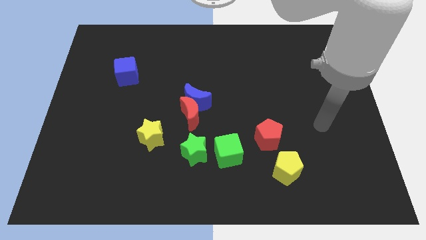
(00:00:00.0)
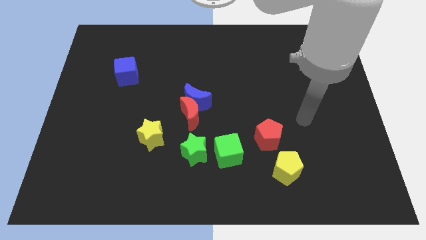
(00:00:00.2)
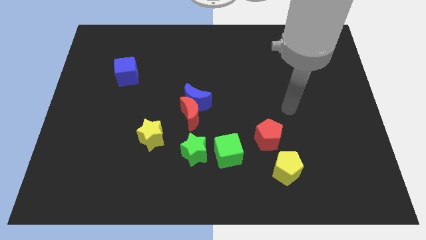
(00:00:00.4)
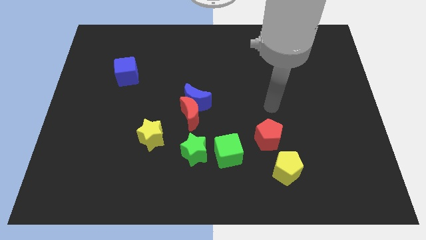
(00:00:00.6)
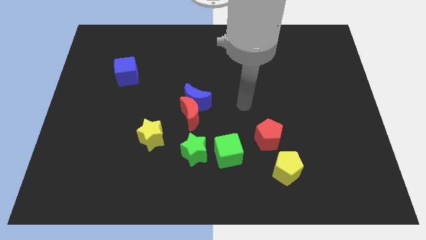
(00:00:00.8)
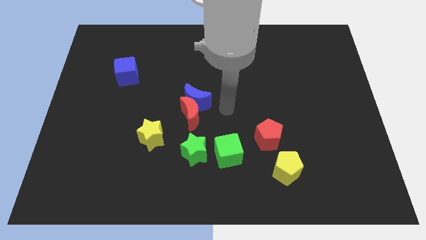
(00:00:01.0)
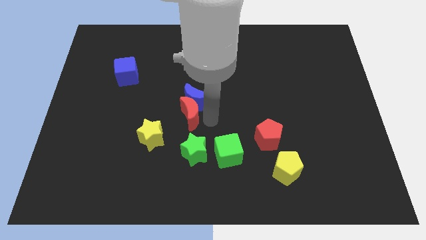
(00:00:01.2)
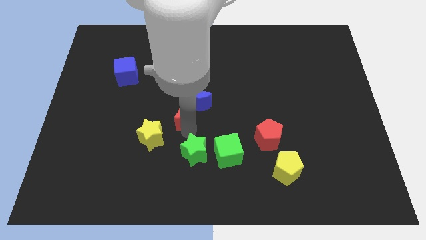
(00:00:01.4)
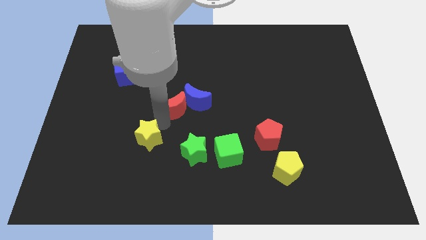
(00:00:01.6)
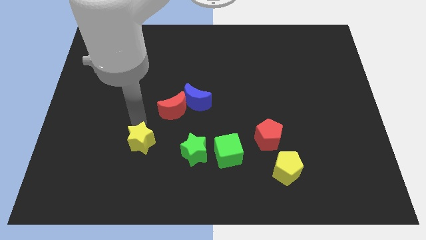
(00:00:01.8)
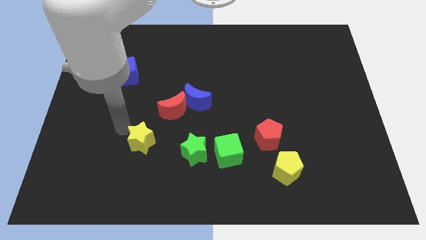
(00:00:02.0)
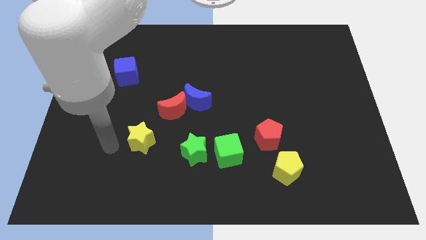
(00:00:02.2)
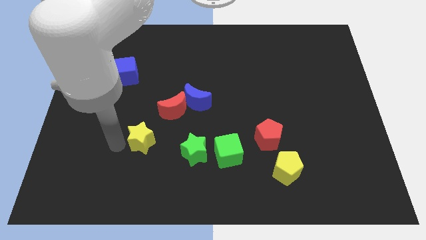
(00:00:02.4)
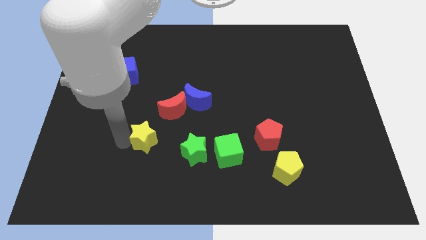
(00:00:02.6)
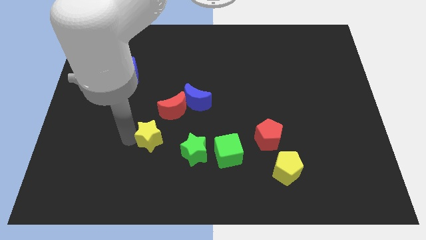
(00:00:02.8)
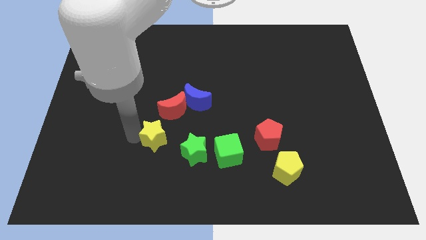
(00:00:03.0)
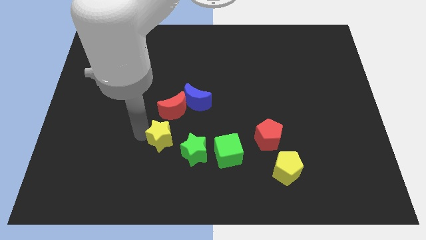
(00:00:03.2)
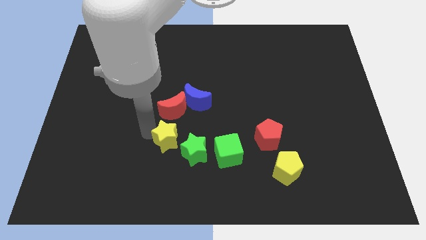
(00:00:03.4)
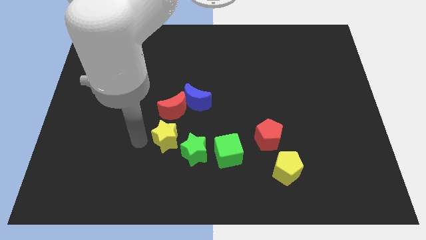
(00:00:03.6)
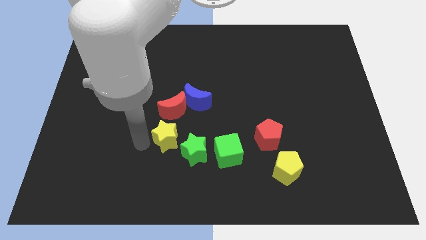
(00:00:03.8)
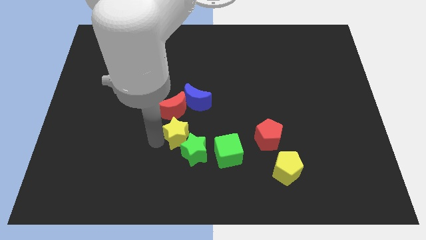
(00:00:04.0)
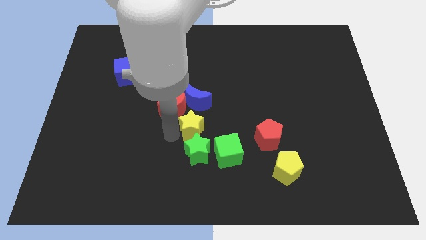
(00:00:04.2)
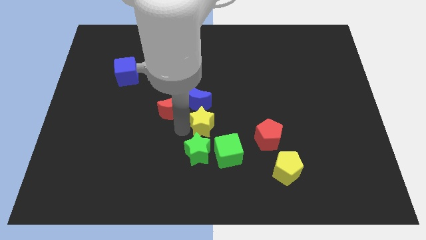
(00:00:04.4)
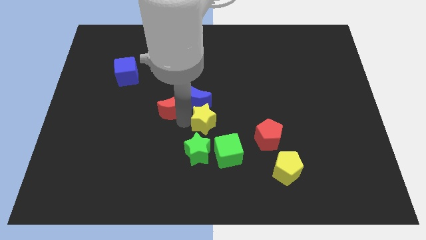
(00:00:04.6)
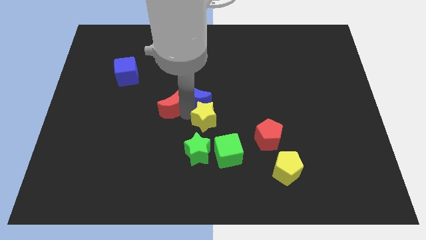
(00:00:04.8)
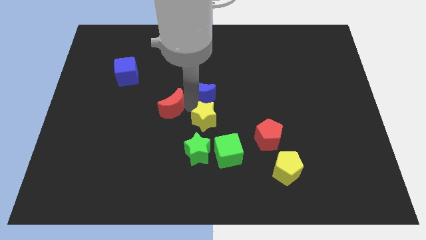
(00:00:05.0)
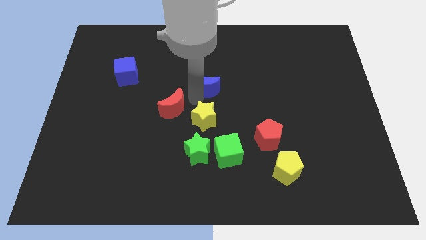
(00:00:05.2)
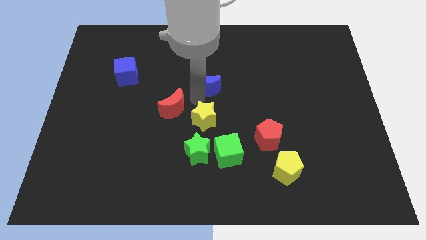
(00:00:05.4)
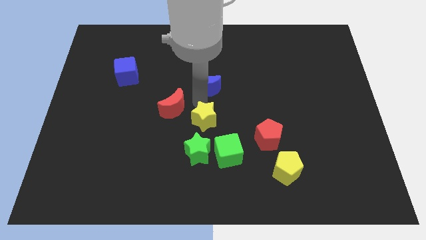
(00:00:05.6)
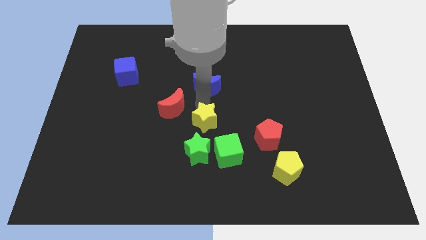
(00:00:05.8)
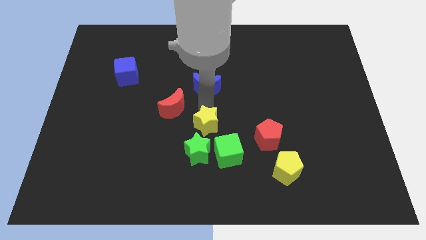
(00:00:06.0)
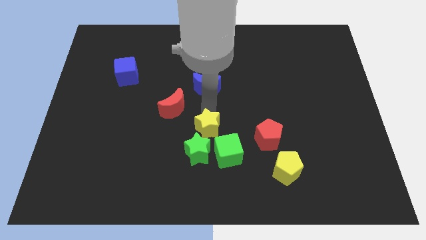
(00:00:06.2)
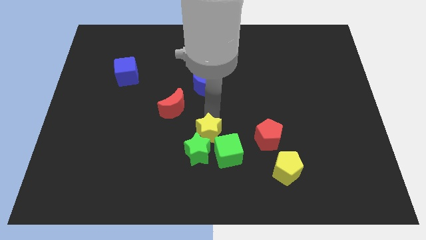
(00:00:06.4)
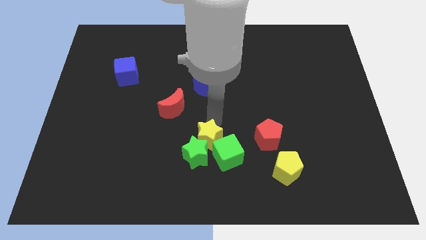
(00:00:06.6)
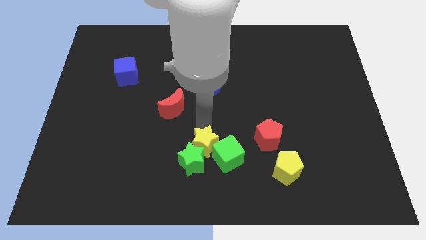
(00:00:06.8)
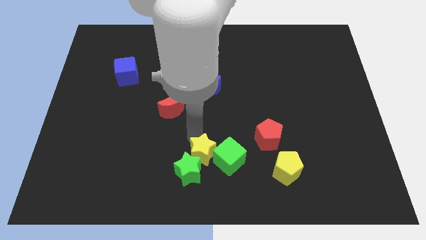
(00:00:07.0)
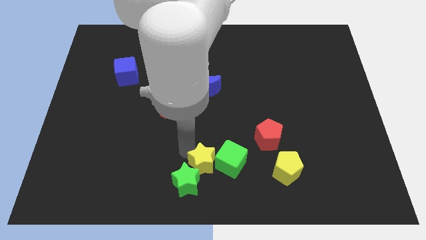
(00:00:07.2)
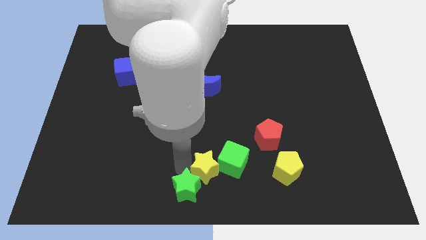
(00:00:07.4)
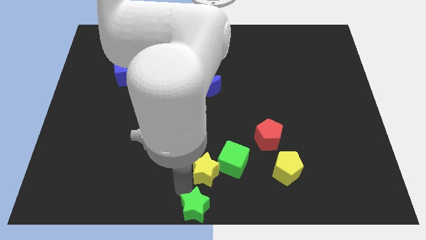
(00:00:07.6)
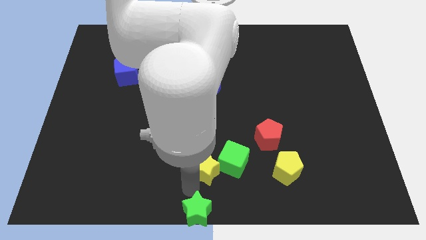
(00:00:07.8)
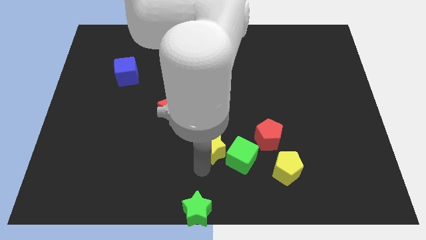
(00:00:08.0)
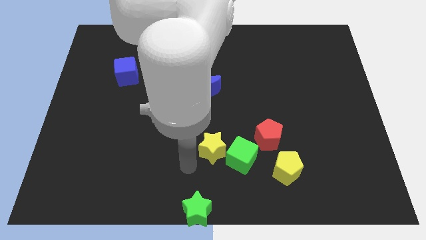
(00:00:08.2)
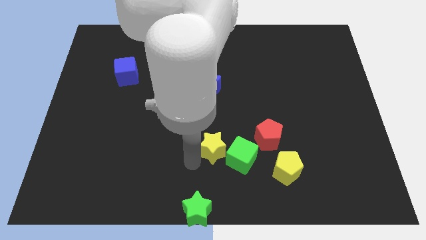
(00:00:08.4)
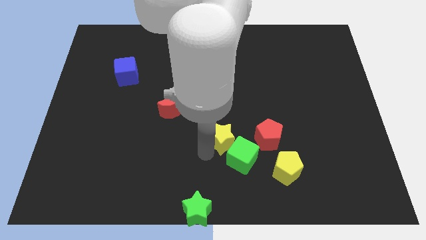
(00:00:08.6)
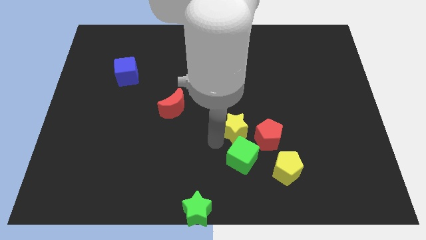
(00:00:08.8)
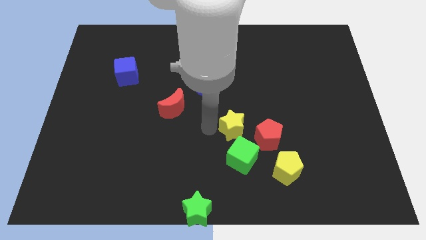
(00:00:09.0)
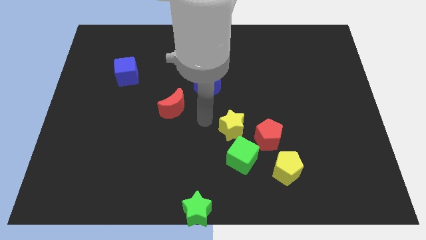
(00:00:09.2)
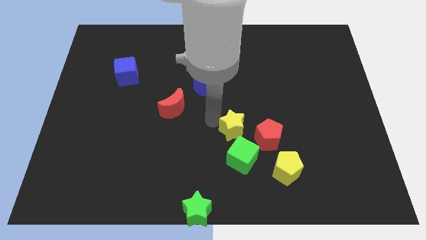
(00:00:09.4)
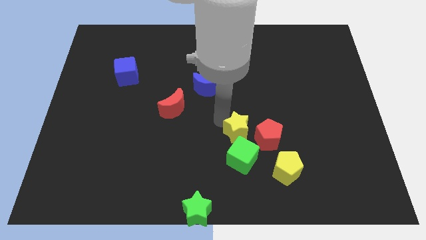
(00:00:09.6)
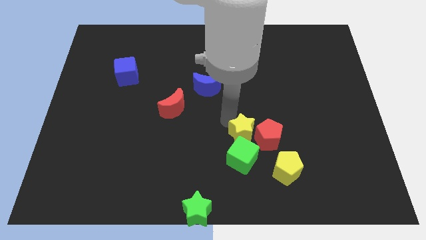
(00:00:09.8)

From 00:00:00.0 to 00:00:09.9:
put the yellow star towards the red pentagon

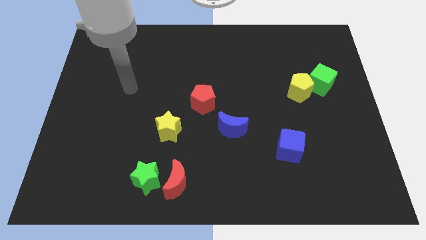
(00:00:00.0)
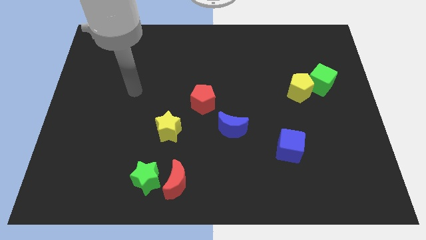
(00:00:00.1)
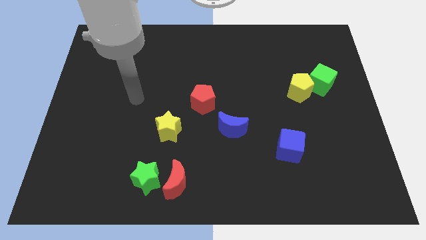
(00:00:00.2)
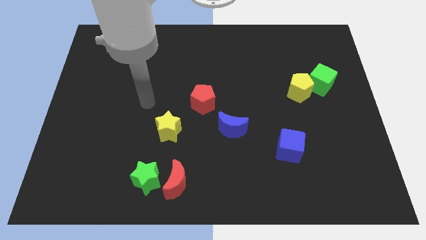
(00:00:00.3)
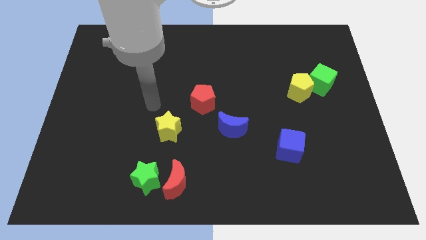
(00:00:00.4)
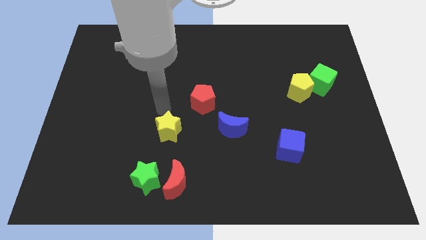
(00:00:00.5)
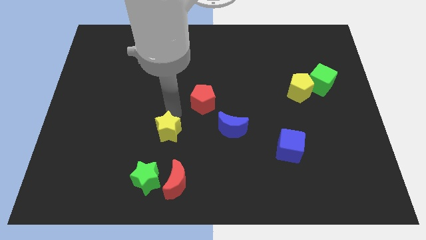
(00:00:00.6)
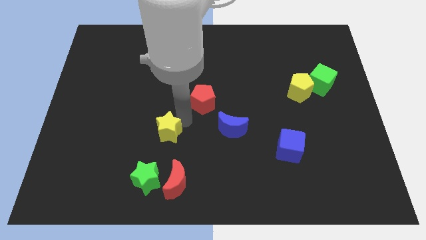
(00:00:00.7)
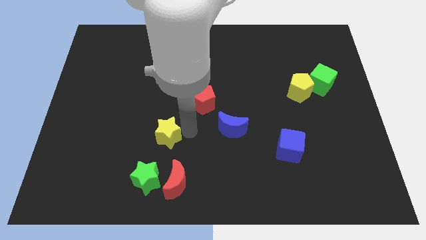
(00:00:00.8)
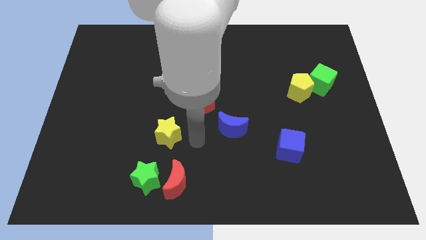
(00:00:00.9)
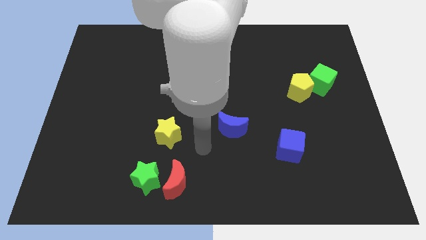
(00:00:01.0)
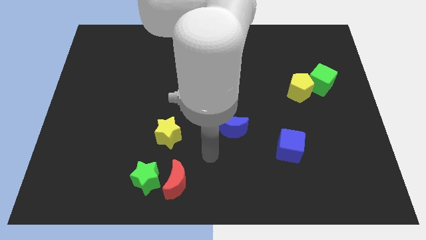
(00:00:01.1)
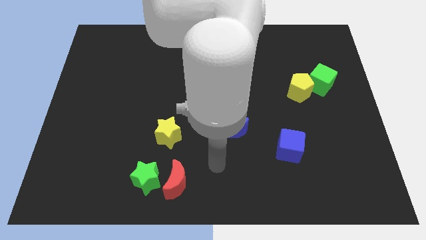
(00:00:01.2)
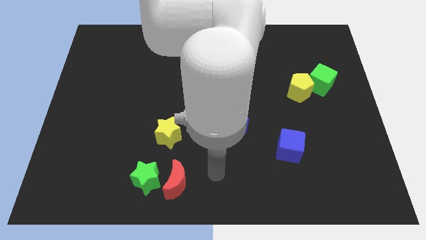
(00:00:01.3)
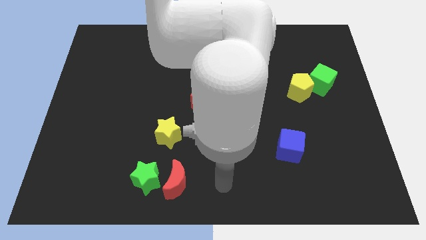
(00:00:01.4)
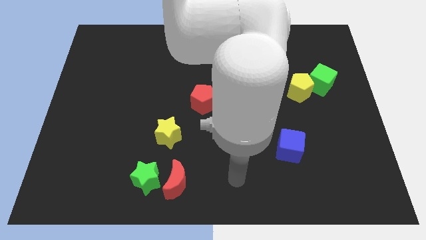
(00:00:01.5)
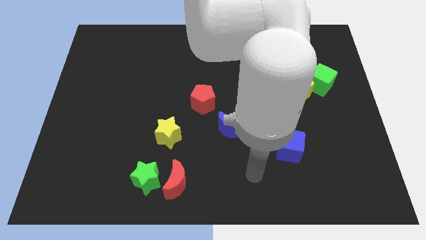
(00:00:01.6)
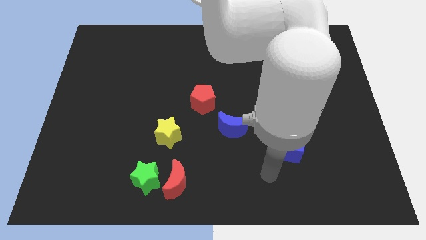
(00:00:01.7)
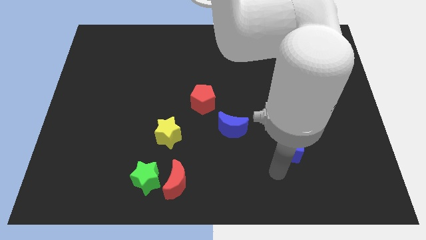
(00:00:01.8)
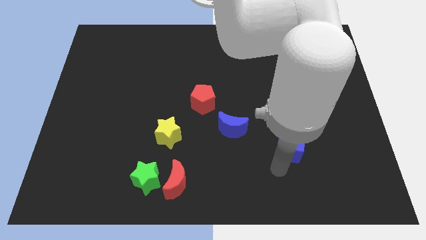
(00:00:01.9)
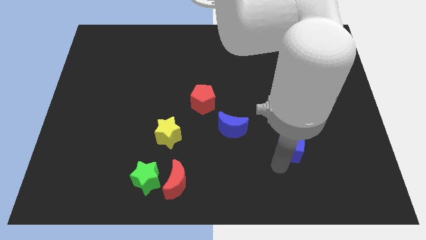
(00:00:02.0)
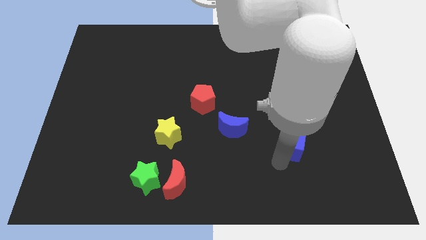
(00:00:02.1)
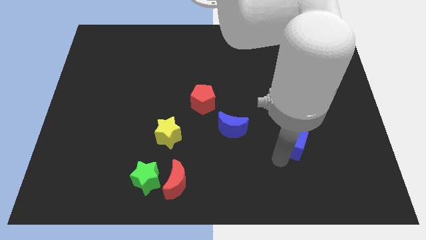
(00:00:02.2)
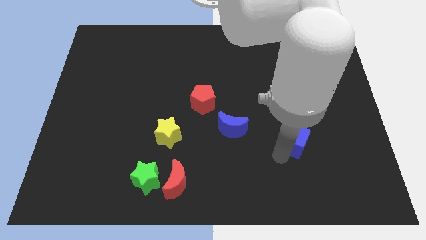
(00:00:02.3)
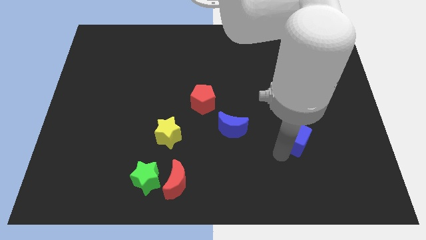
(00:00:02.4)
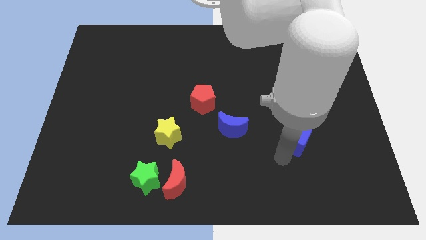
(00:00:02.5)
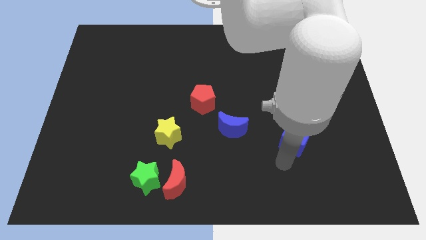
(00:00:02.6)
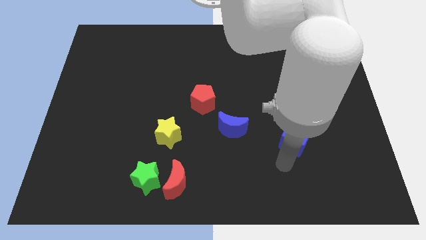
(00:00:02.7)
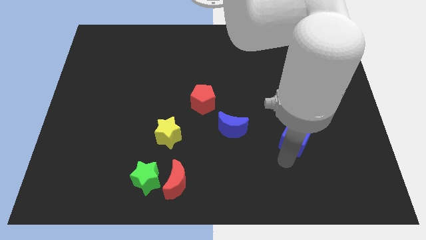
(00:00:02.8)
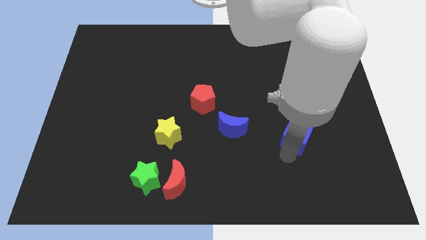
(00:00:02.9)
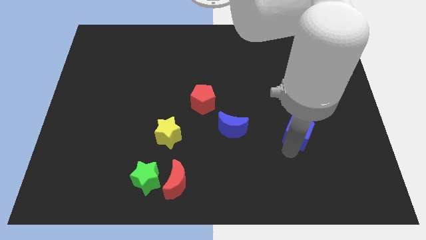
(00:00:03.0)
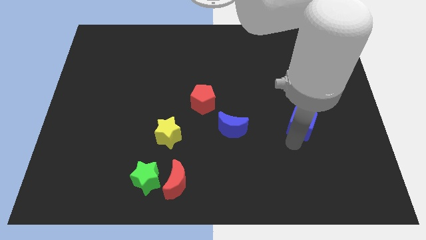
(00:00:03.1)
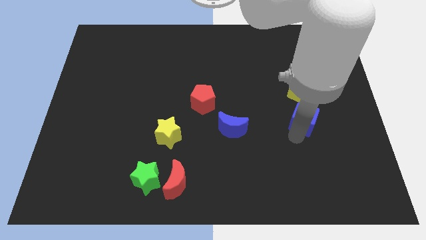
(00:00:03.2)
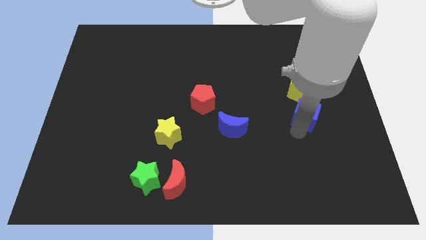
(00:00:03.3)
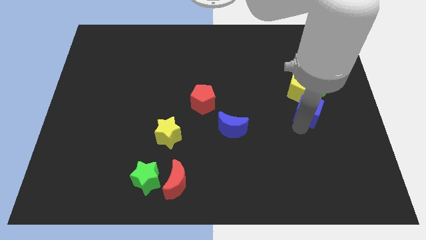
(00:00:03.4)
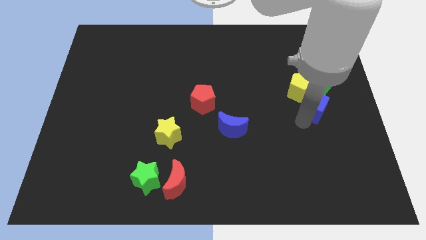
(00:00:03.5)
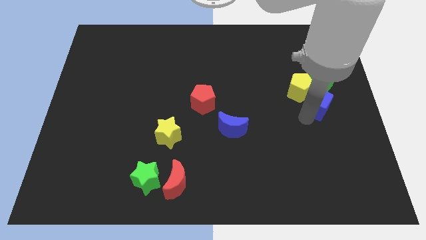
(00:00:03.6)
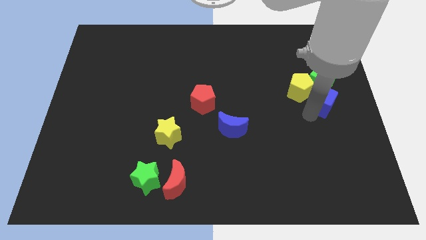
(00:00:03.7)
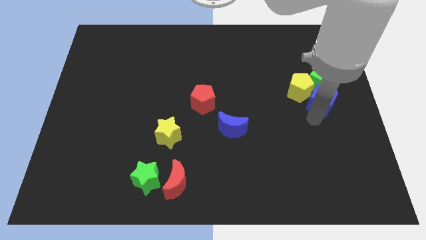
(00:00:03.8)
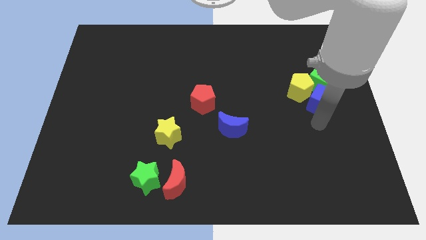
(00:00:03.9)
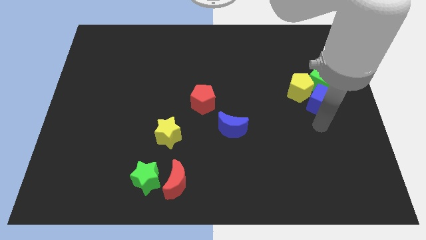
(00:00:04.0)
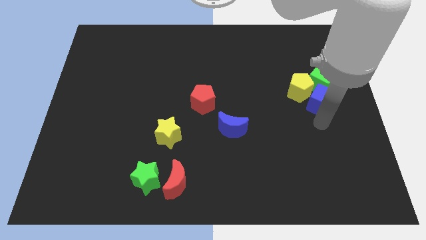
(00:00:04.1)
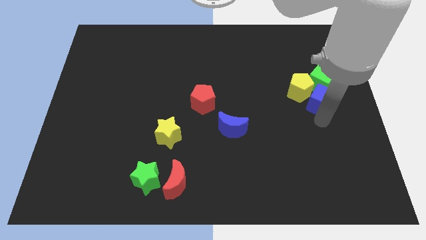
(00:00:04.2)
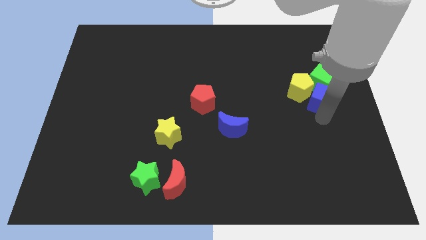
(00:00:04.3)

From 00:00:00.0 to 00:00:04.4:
put the blue cube towards the green cube
